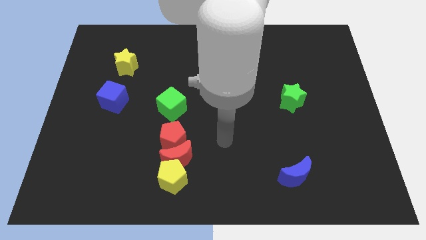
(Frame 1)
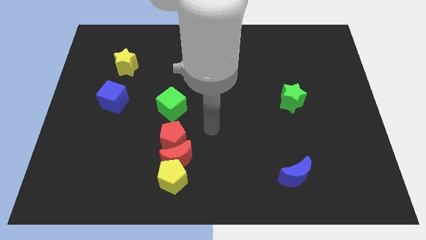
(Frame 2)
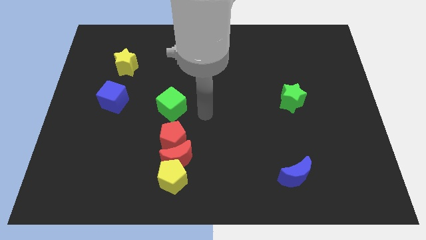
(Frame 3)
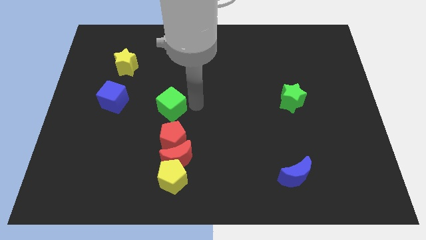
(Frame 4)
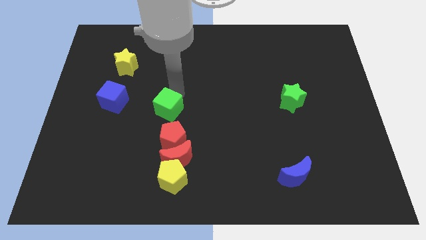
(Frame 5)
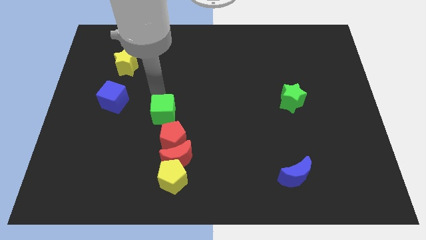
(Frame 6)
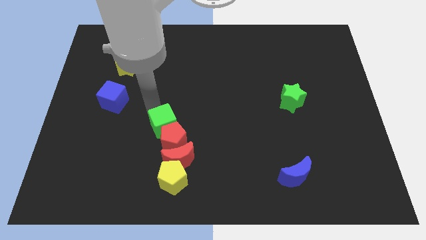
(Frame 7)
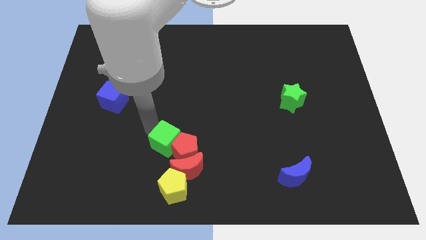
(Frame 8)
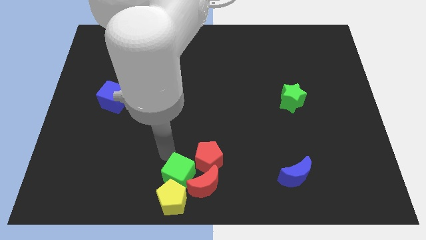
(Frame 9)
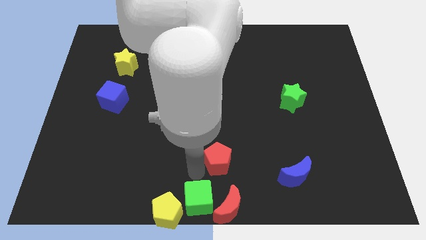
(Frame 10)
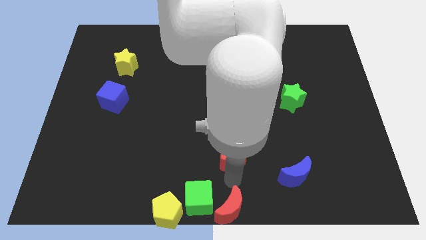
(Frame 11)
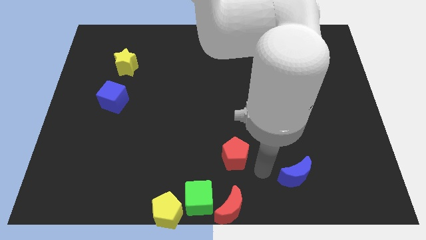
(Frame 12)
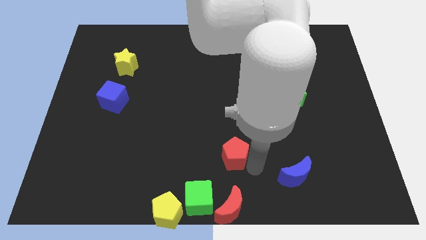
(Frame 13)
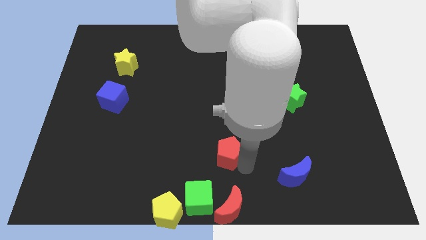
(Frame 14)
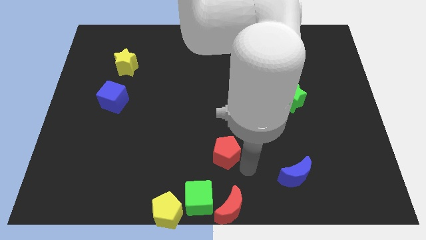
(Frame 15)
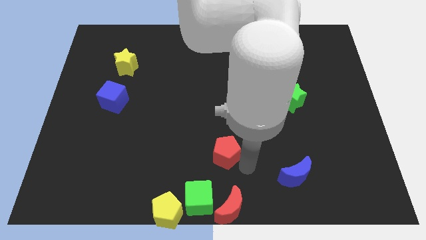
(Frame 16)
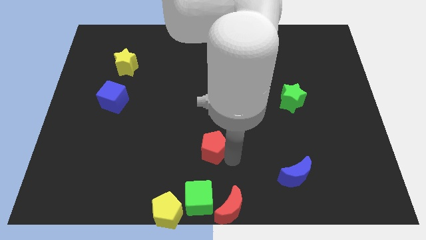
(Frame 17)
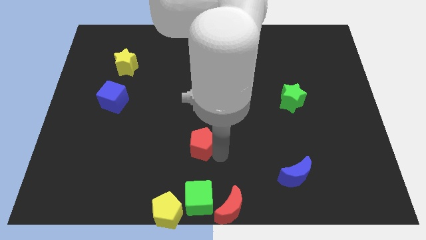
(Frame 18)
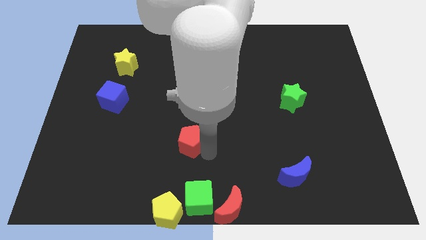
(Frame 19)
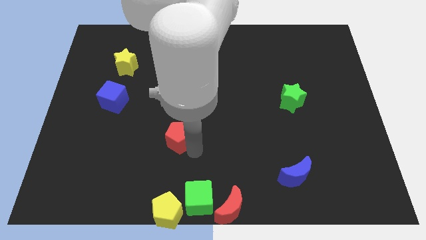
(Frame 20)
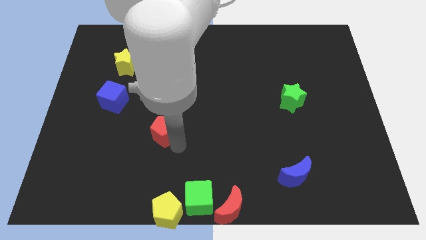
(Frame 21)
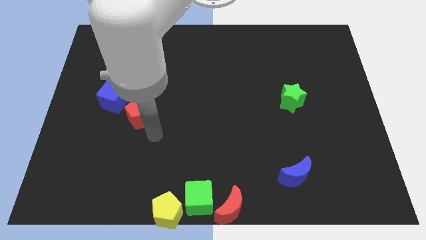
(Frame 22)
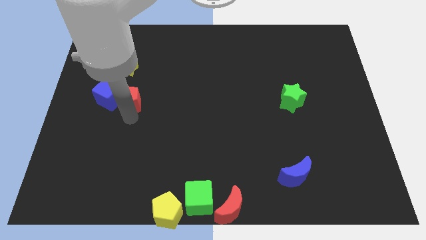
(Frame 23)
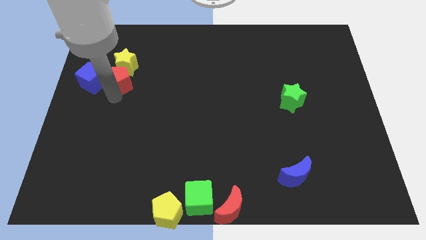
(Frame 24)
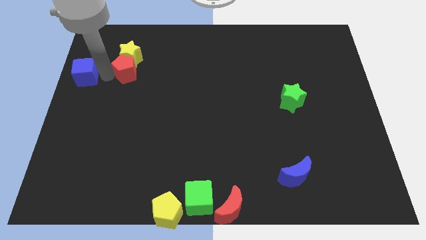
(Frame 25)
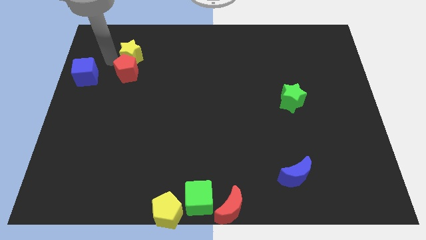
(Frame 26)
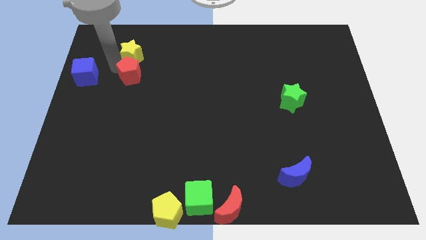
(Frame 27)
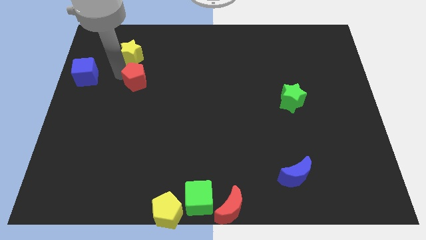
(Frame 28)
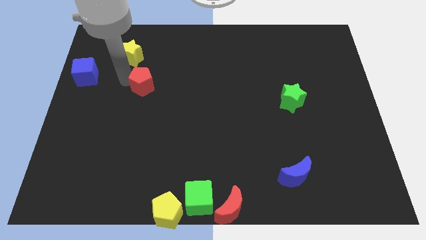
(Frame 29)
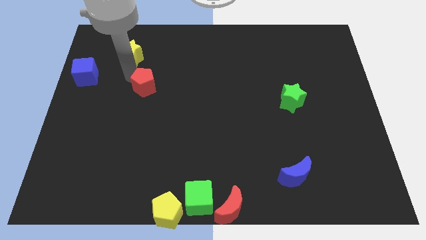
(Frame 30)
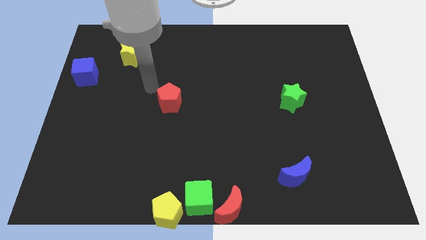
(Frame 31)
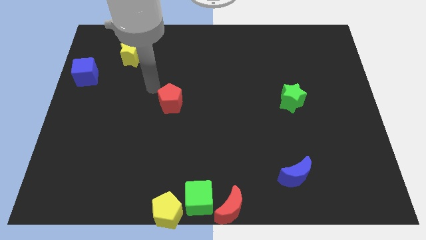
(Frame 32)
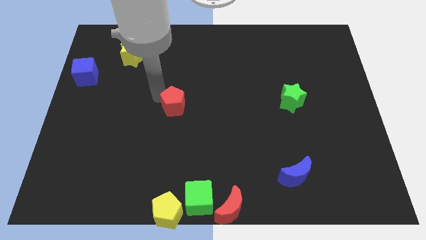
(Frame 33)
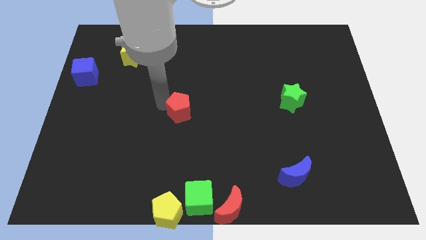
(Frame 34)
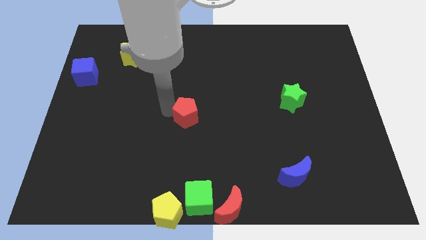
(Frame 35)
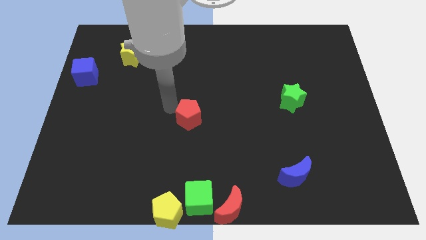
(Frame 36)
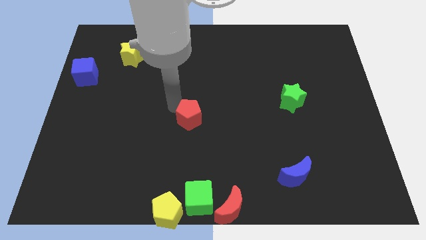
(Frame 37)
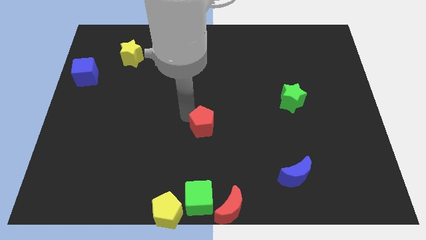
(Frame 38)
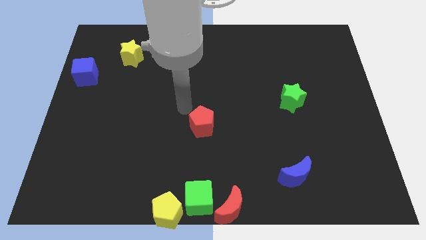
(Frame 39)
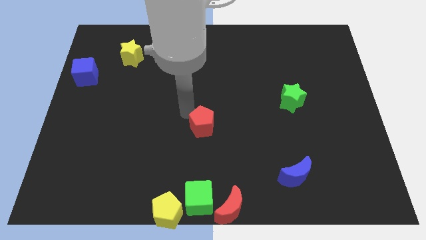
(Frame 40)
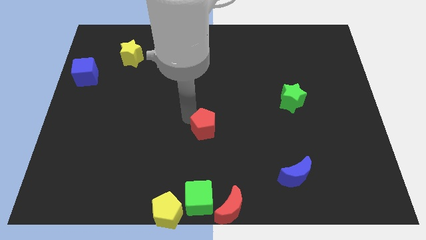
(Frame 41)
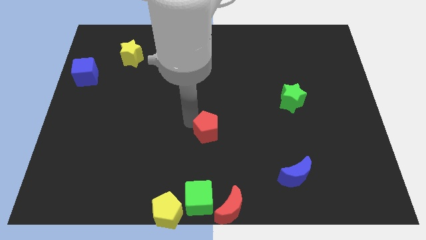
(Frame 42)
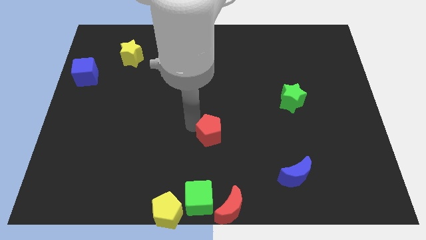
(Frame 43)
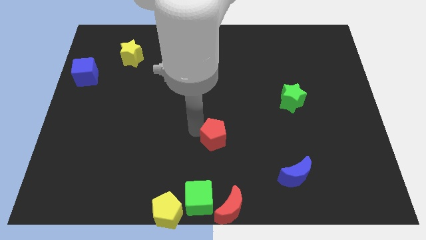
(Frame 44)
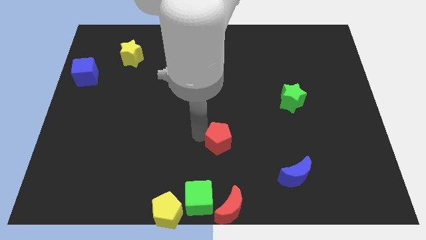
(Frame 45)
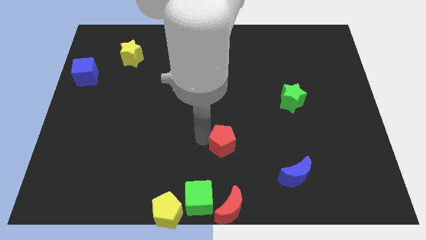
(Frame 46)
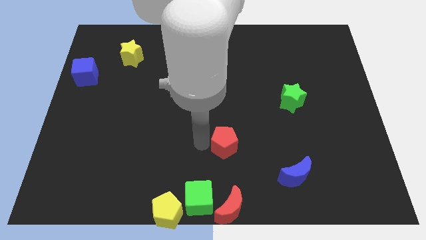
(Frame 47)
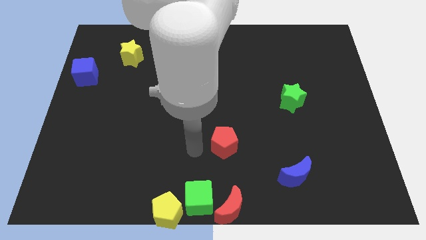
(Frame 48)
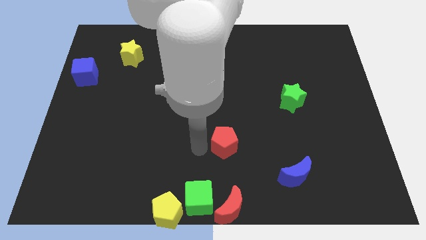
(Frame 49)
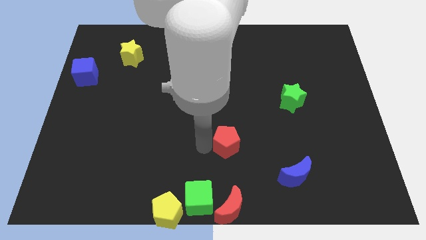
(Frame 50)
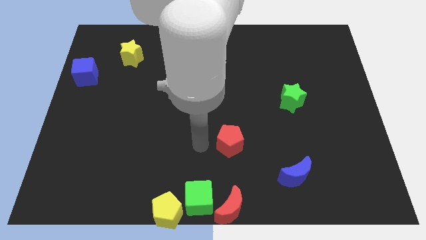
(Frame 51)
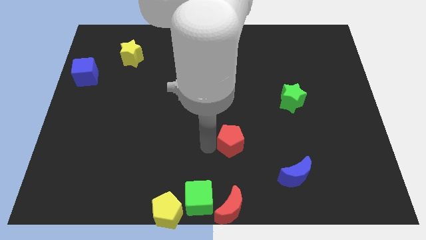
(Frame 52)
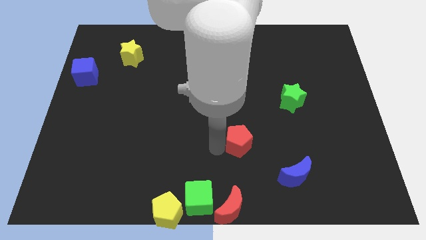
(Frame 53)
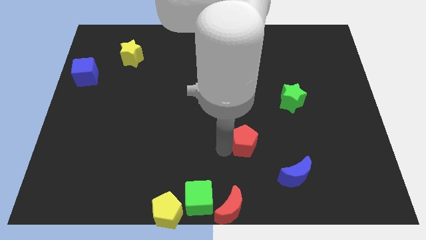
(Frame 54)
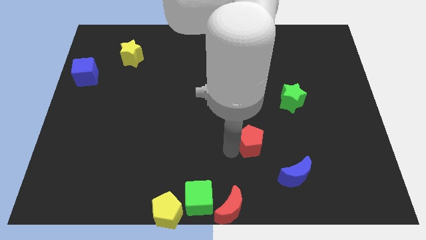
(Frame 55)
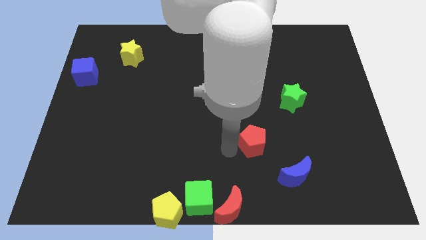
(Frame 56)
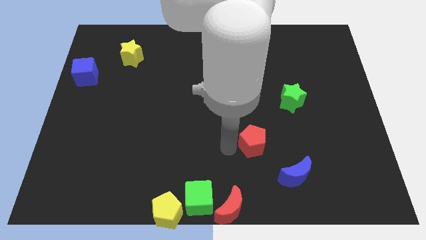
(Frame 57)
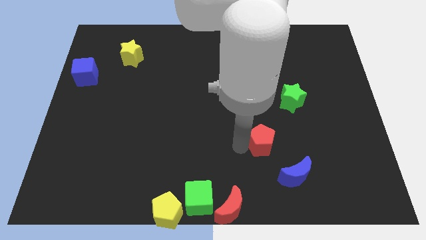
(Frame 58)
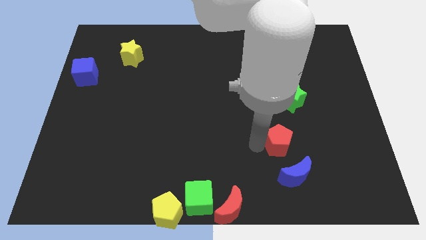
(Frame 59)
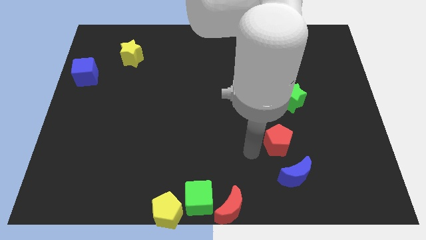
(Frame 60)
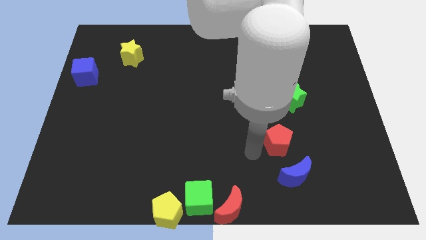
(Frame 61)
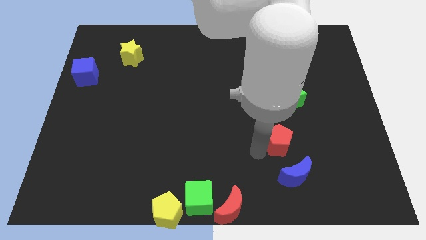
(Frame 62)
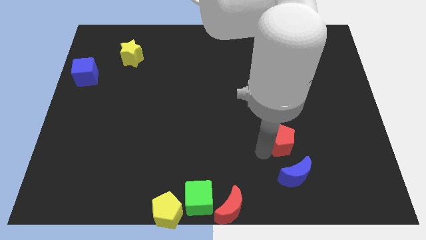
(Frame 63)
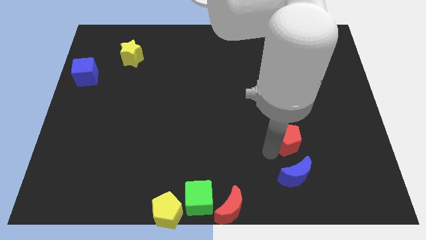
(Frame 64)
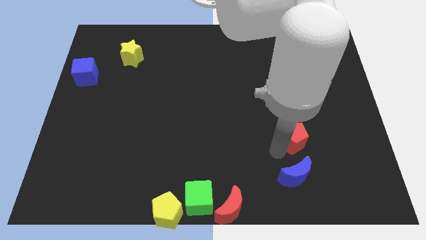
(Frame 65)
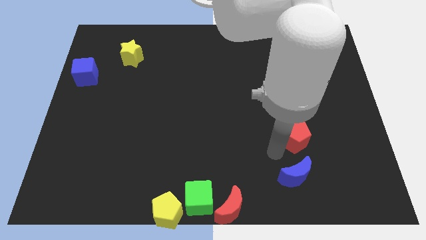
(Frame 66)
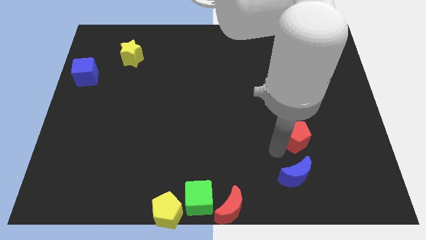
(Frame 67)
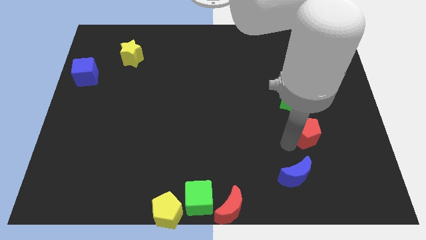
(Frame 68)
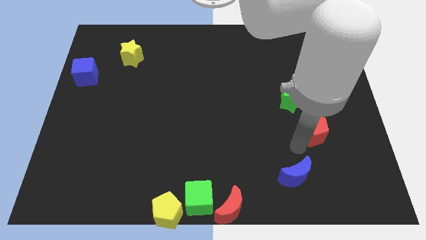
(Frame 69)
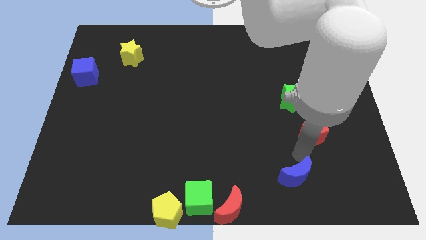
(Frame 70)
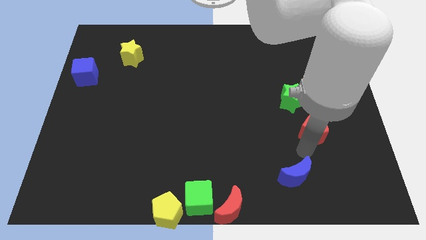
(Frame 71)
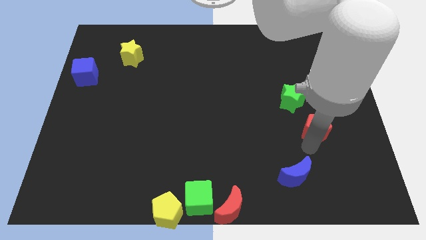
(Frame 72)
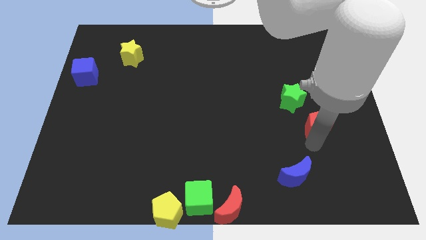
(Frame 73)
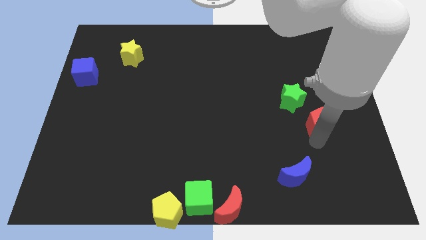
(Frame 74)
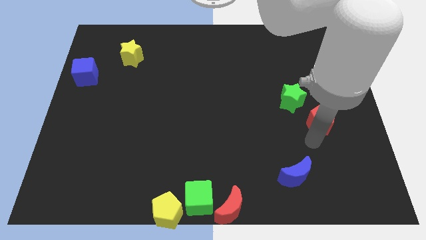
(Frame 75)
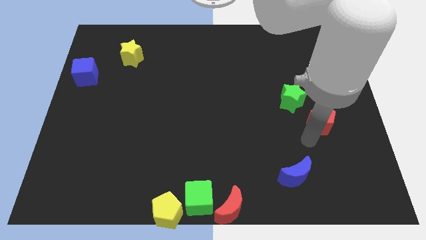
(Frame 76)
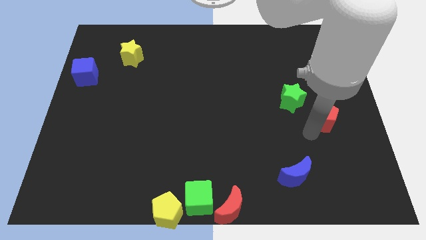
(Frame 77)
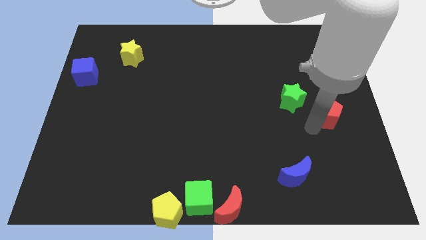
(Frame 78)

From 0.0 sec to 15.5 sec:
move the red pentagon to the right side of the green star
